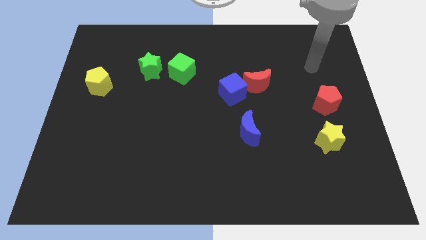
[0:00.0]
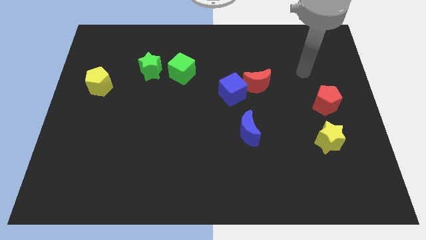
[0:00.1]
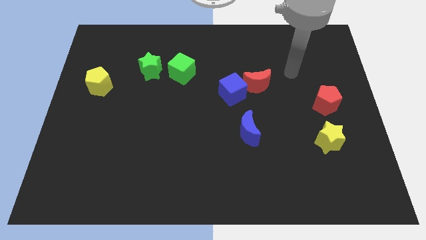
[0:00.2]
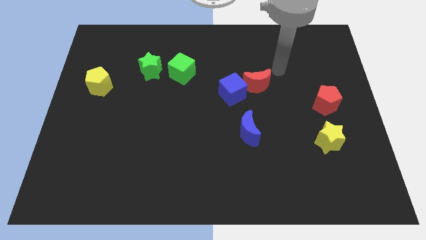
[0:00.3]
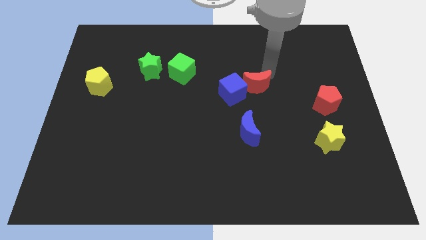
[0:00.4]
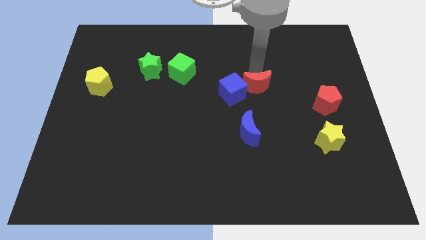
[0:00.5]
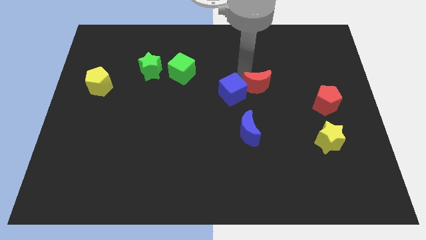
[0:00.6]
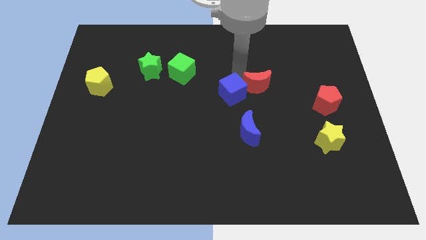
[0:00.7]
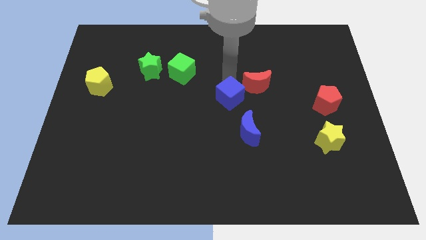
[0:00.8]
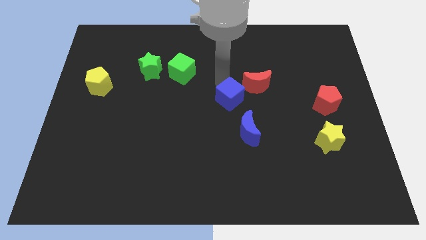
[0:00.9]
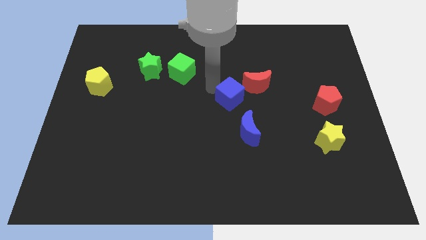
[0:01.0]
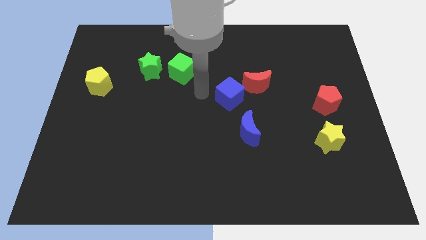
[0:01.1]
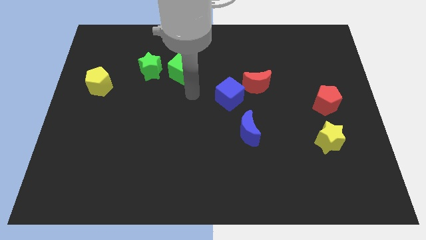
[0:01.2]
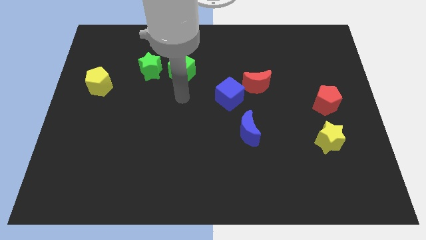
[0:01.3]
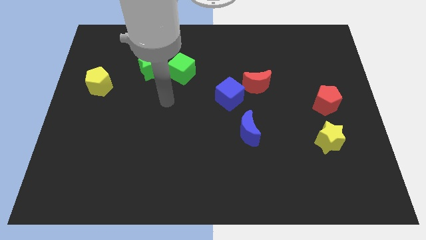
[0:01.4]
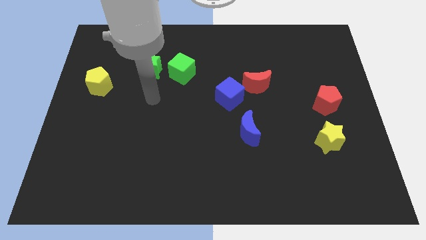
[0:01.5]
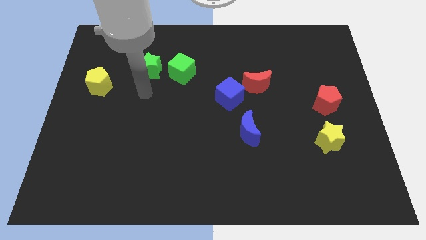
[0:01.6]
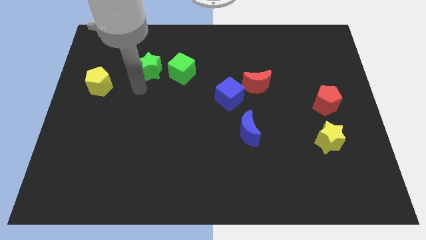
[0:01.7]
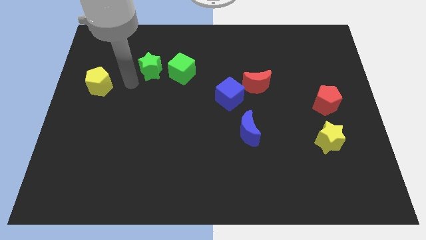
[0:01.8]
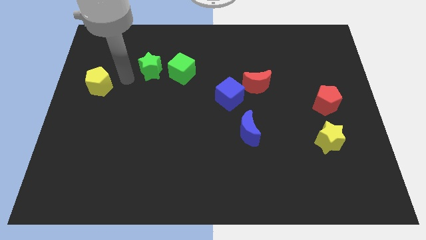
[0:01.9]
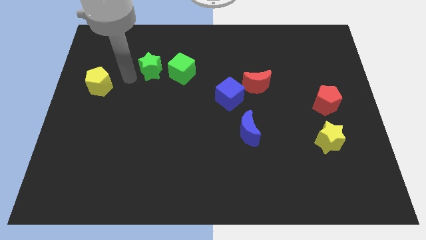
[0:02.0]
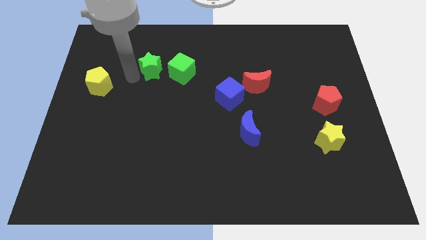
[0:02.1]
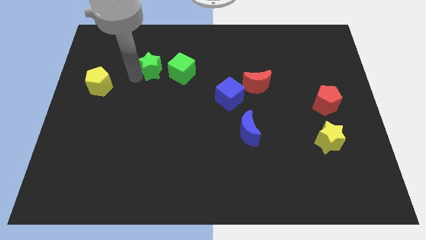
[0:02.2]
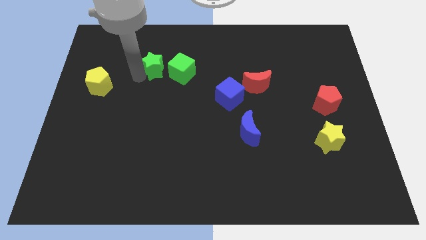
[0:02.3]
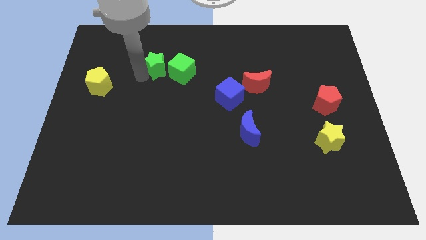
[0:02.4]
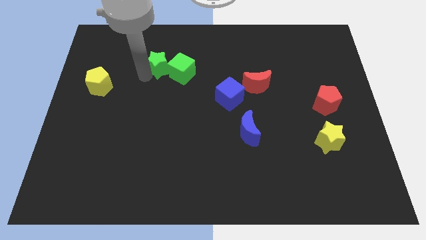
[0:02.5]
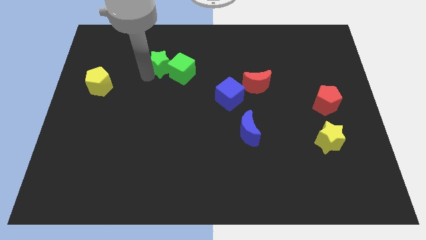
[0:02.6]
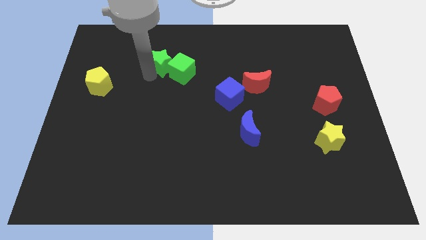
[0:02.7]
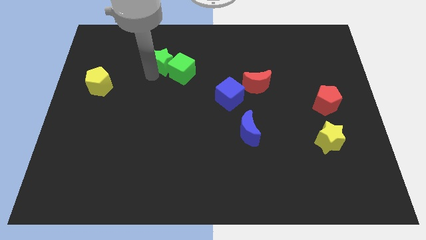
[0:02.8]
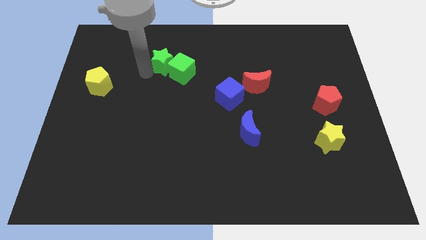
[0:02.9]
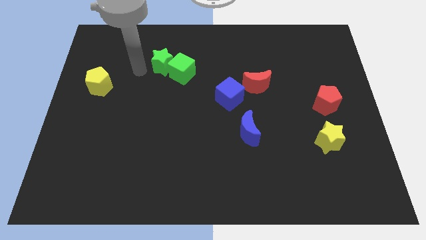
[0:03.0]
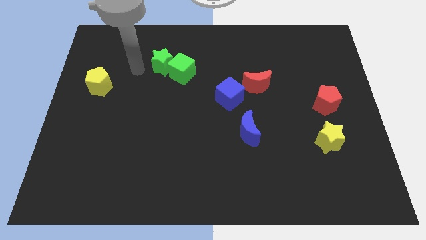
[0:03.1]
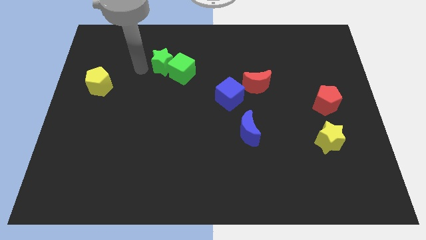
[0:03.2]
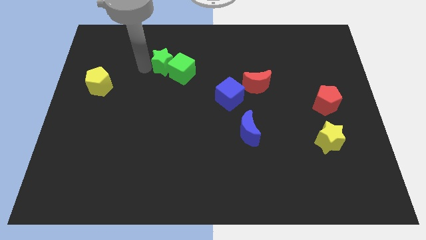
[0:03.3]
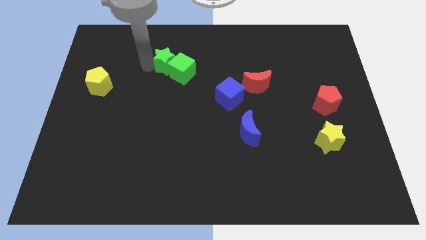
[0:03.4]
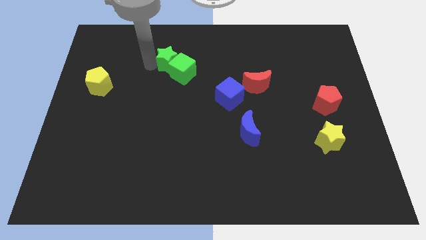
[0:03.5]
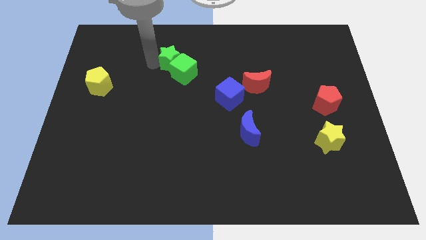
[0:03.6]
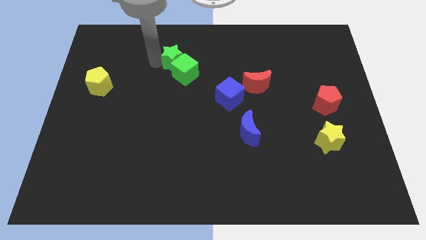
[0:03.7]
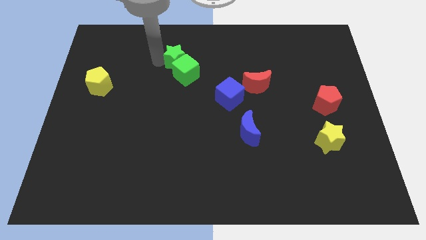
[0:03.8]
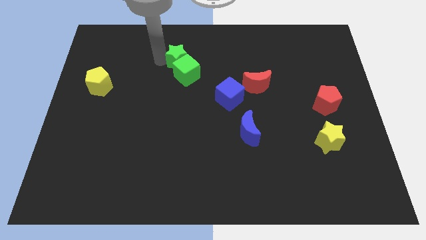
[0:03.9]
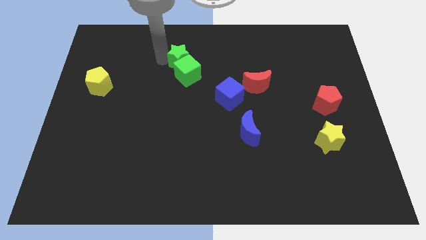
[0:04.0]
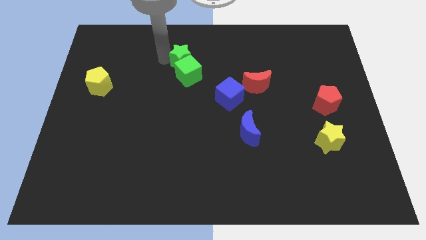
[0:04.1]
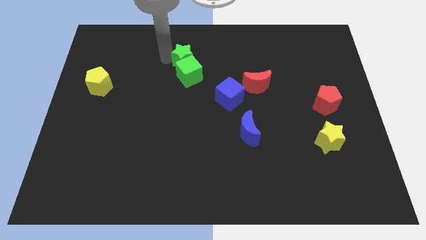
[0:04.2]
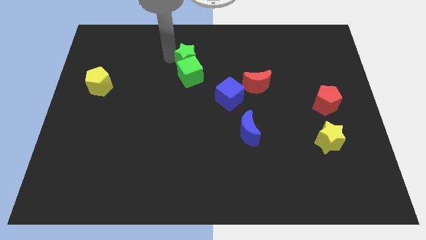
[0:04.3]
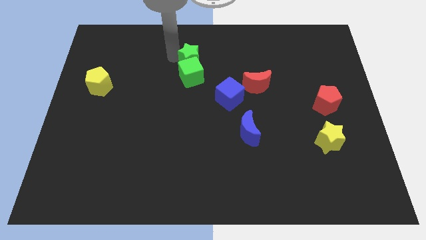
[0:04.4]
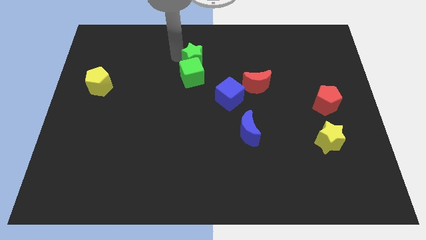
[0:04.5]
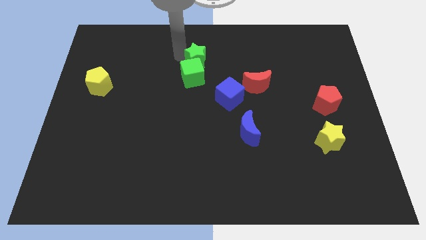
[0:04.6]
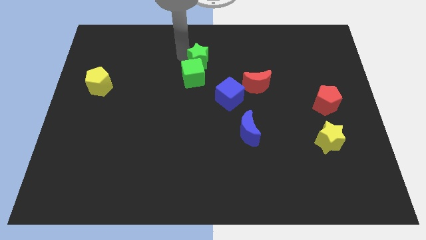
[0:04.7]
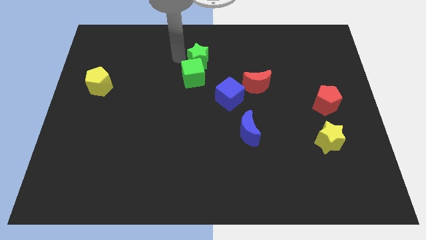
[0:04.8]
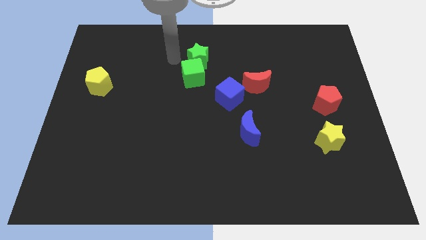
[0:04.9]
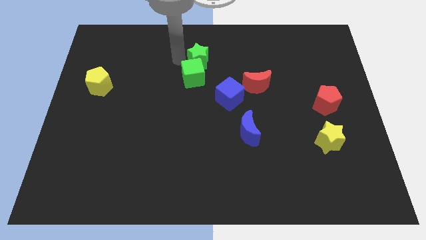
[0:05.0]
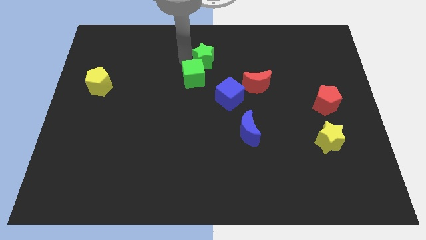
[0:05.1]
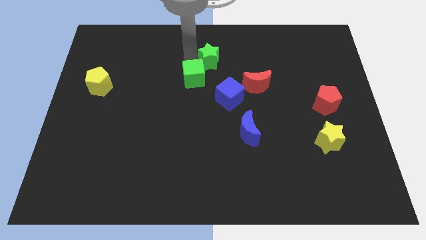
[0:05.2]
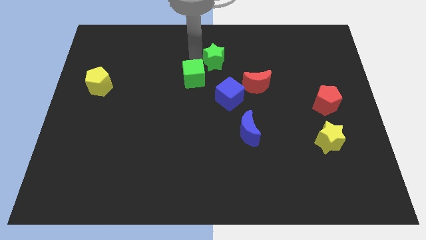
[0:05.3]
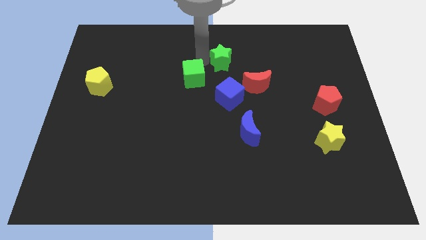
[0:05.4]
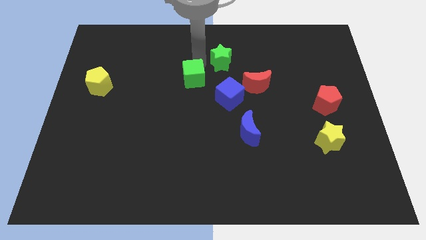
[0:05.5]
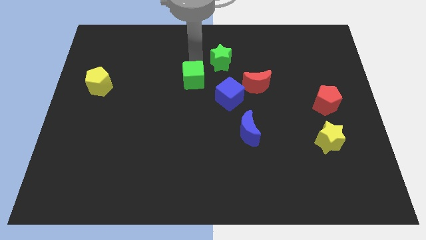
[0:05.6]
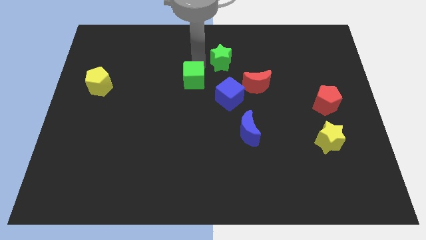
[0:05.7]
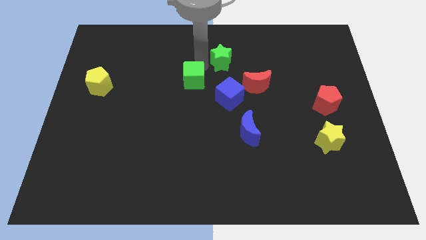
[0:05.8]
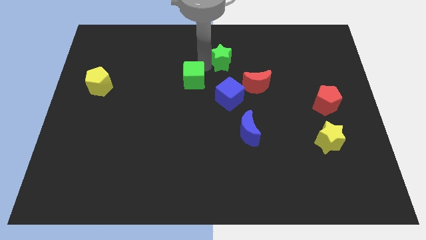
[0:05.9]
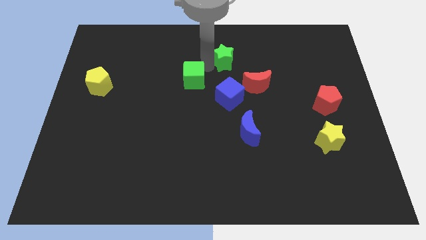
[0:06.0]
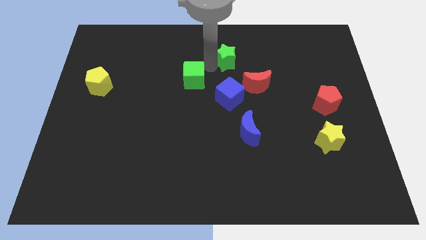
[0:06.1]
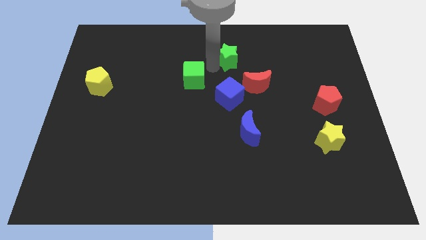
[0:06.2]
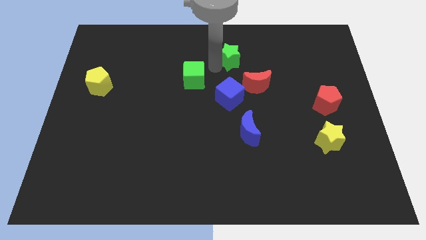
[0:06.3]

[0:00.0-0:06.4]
push the green star right

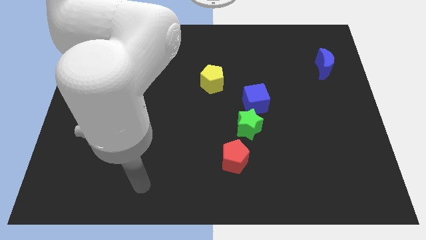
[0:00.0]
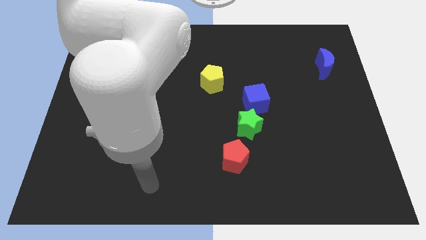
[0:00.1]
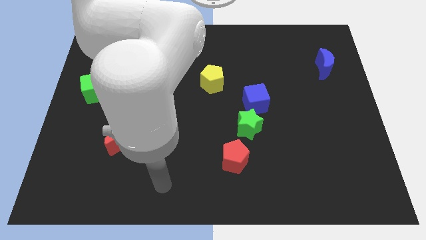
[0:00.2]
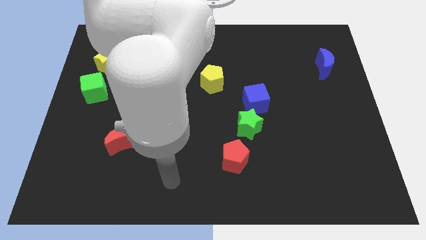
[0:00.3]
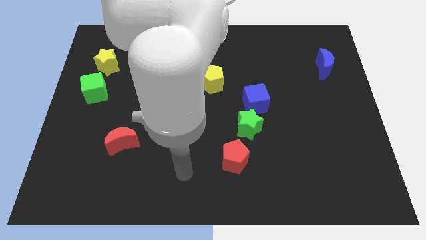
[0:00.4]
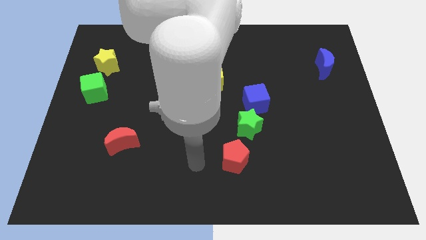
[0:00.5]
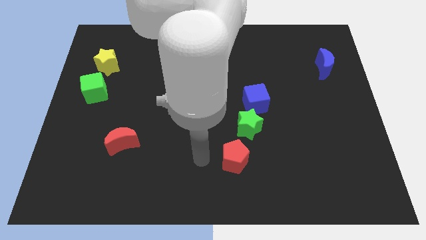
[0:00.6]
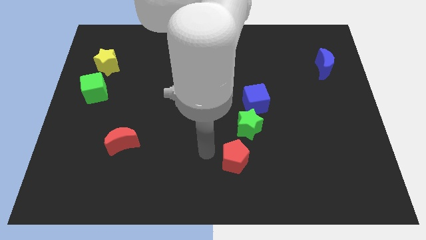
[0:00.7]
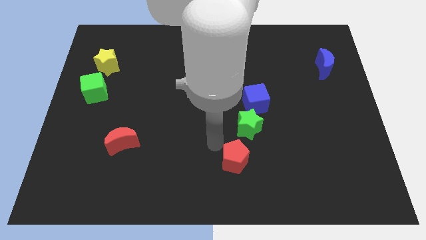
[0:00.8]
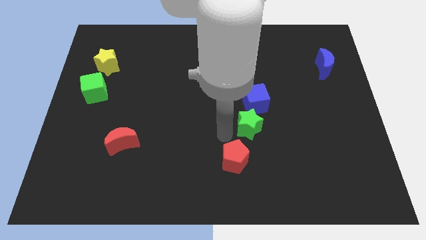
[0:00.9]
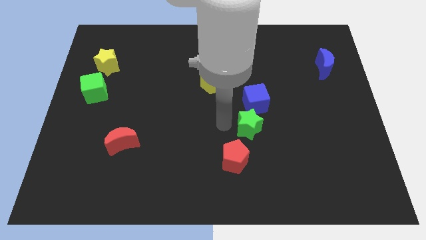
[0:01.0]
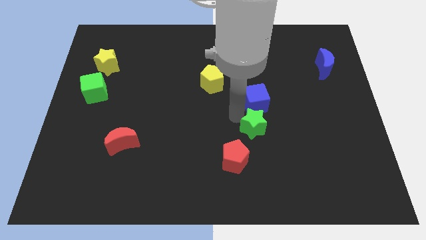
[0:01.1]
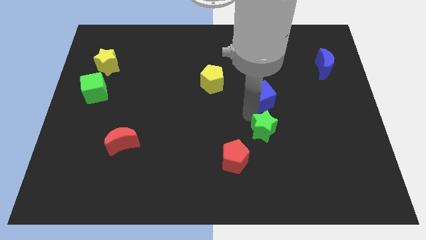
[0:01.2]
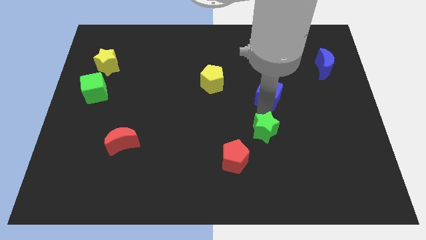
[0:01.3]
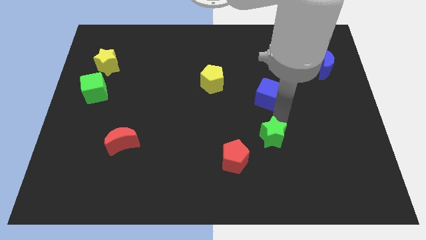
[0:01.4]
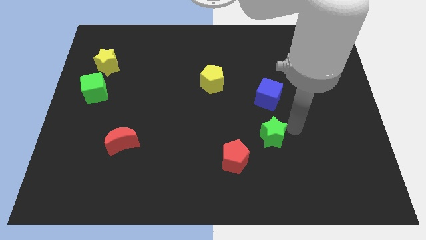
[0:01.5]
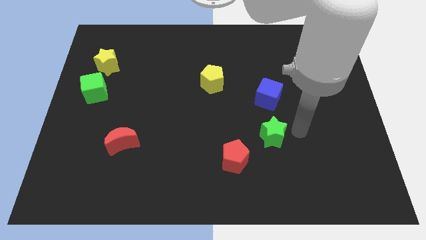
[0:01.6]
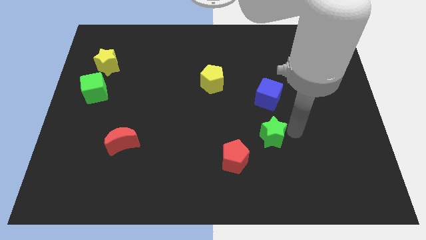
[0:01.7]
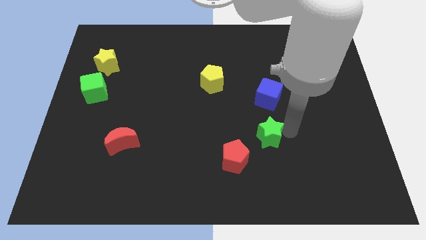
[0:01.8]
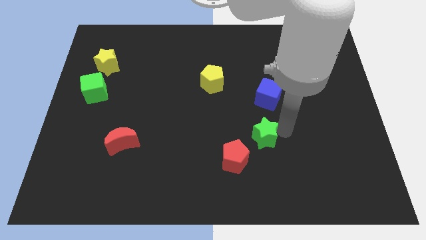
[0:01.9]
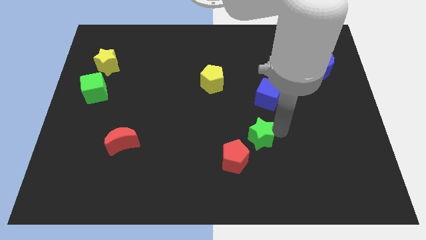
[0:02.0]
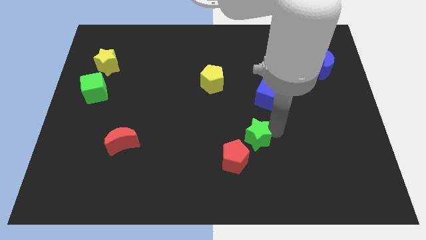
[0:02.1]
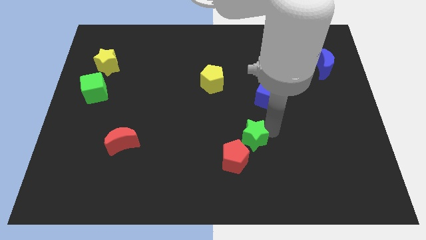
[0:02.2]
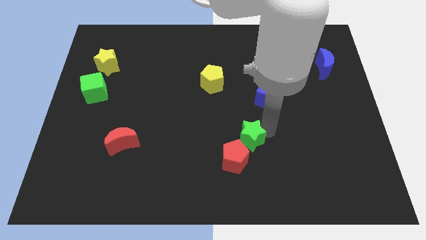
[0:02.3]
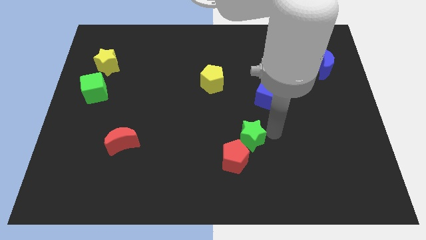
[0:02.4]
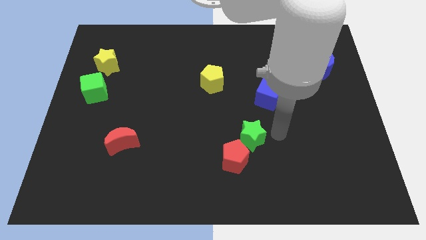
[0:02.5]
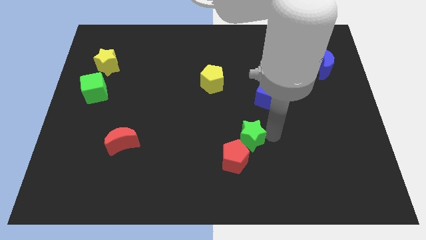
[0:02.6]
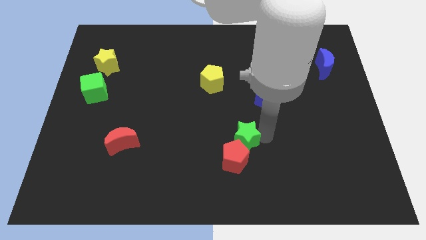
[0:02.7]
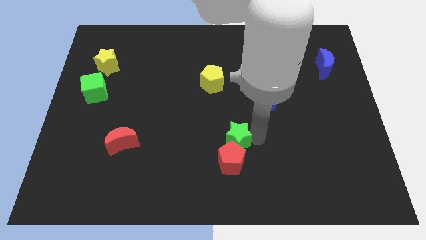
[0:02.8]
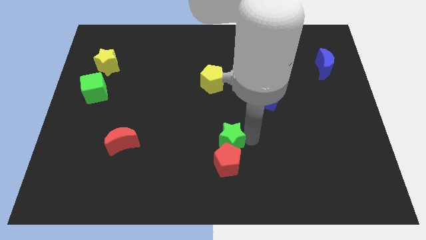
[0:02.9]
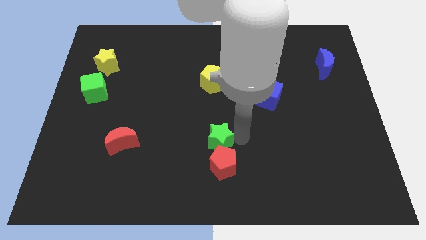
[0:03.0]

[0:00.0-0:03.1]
slightly move the green star down and to the left
